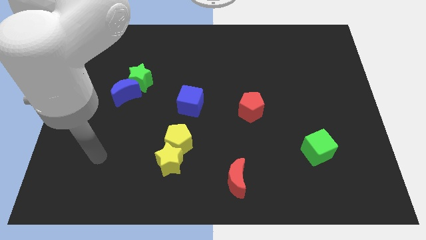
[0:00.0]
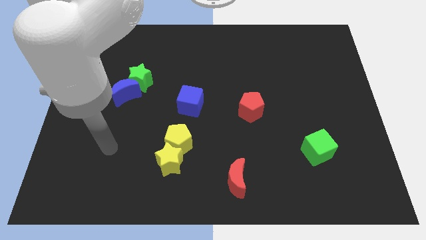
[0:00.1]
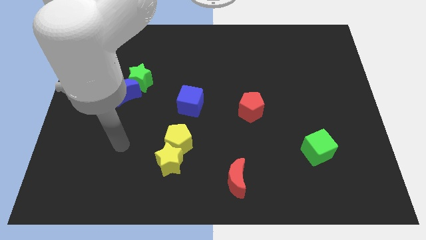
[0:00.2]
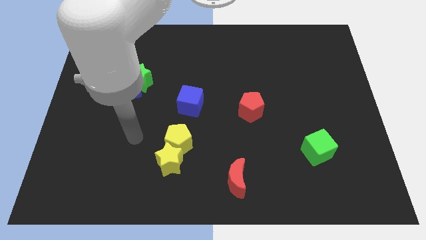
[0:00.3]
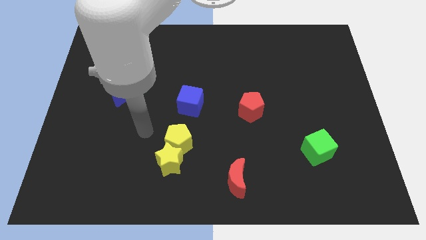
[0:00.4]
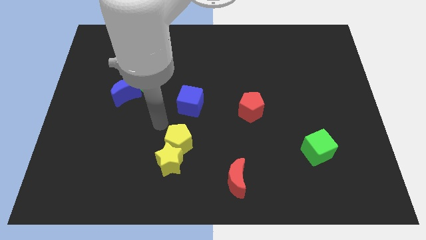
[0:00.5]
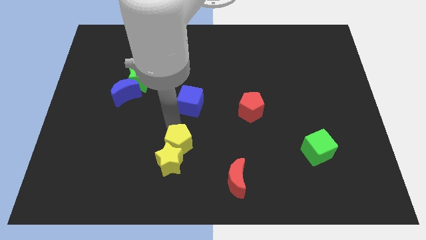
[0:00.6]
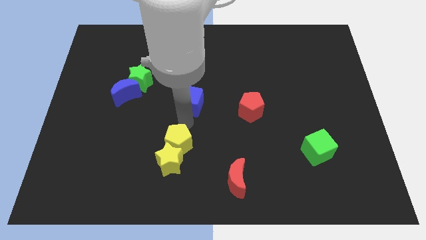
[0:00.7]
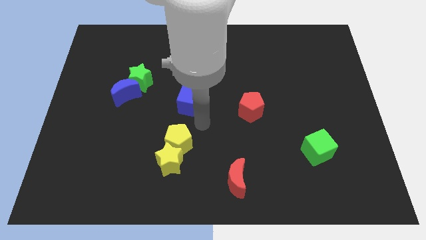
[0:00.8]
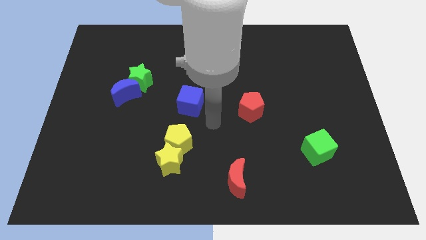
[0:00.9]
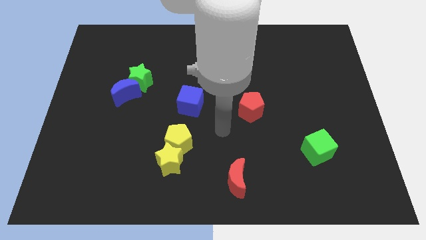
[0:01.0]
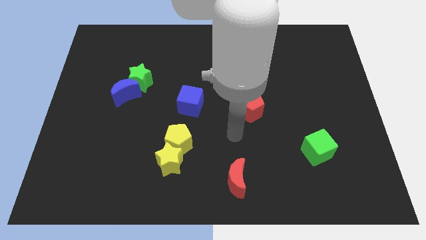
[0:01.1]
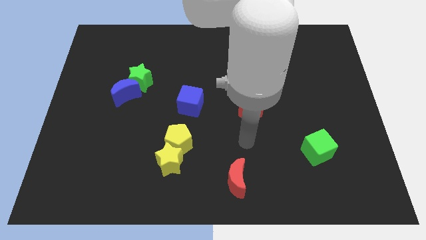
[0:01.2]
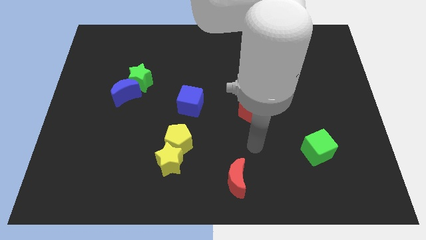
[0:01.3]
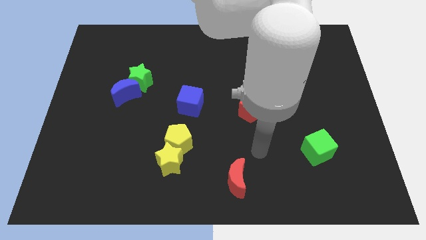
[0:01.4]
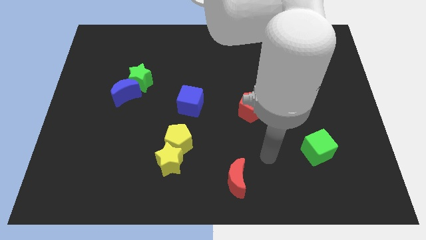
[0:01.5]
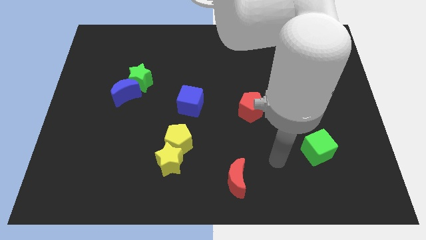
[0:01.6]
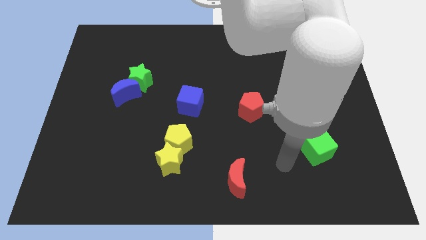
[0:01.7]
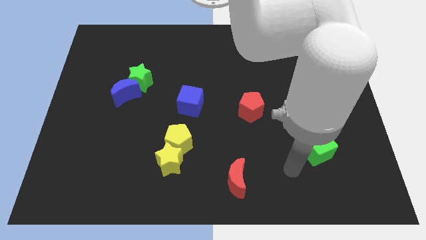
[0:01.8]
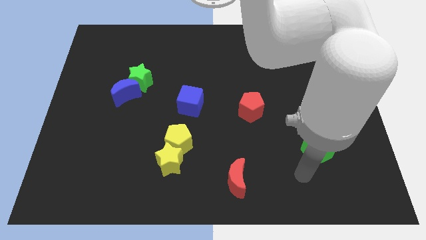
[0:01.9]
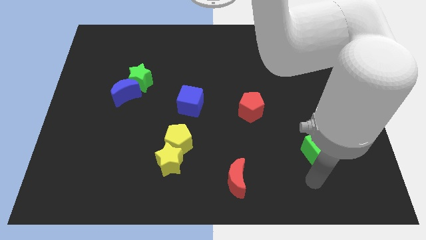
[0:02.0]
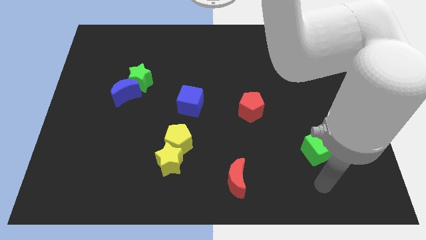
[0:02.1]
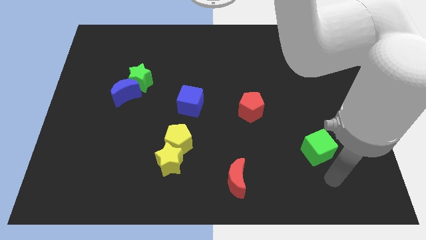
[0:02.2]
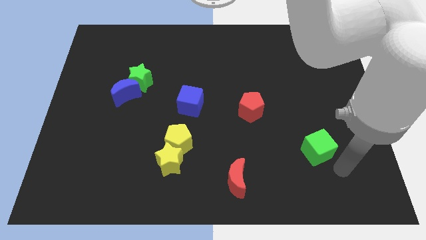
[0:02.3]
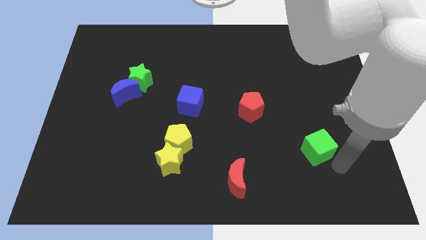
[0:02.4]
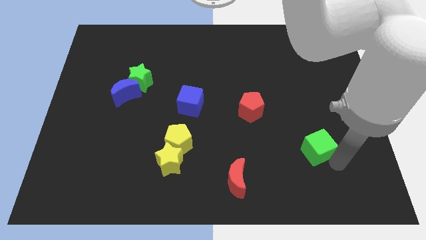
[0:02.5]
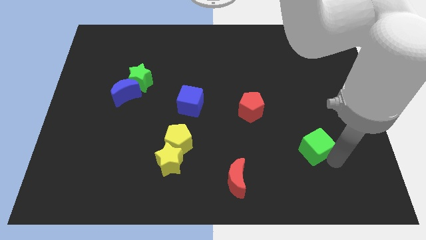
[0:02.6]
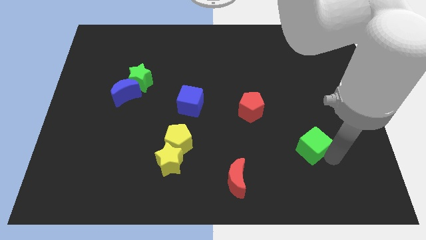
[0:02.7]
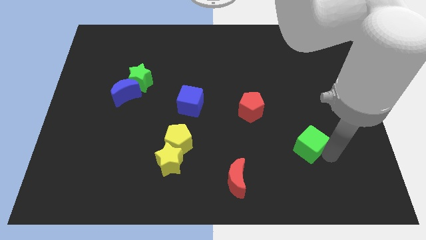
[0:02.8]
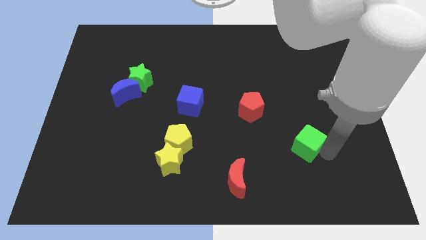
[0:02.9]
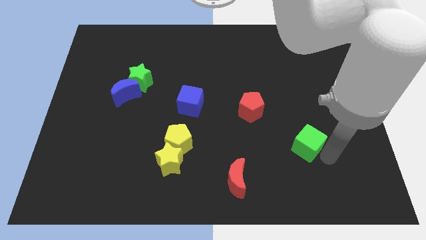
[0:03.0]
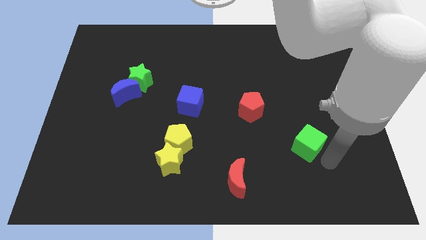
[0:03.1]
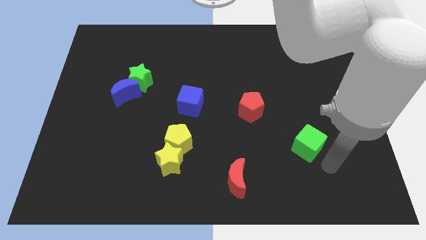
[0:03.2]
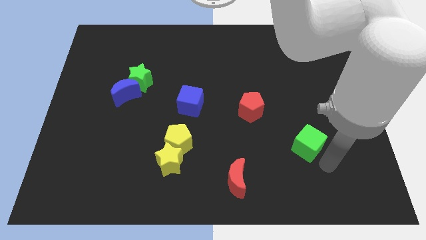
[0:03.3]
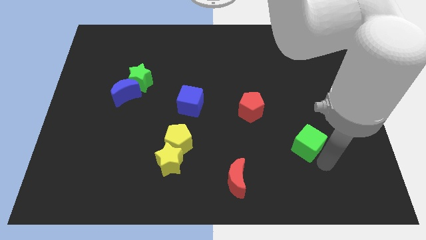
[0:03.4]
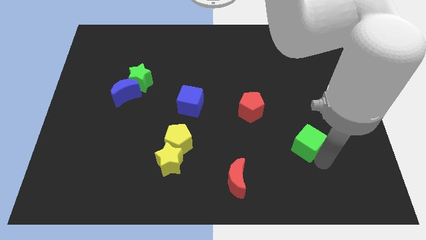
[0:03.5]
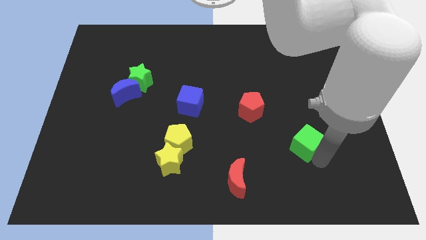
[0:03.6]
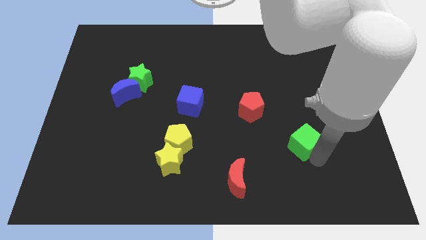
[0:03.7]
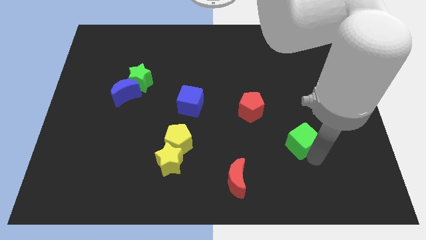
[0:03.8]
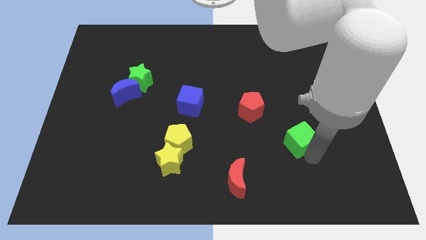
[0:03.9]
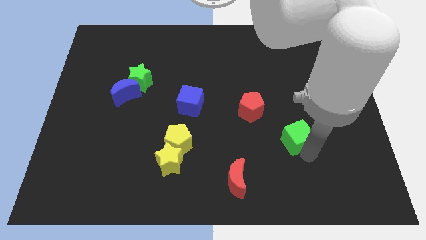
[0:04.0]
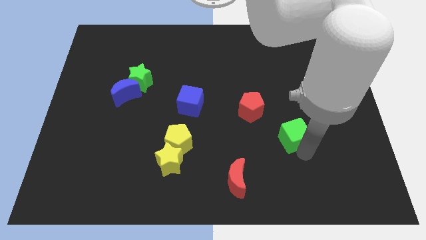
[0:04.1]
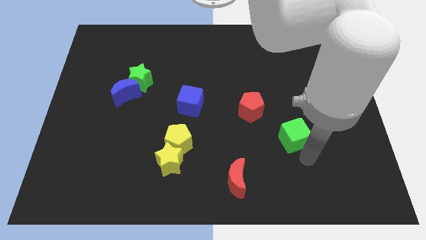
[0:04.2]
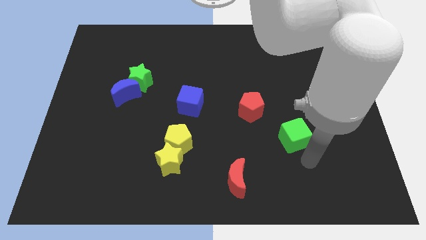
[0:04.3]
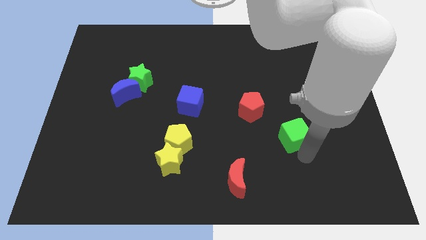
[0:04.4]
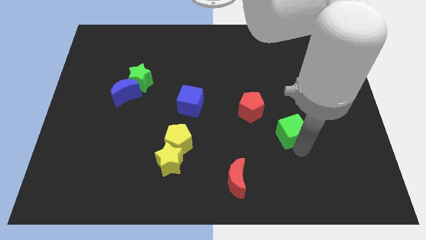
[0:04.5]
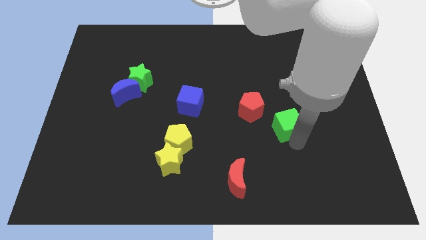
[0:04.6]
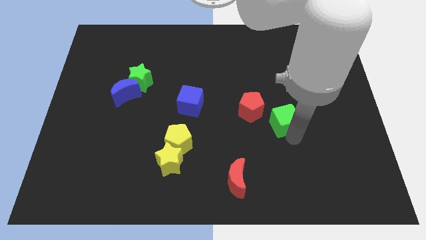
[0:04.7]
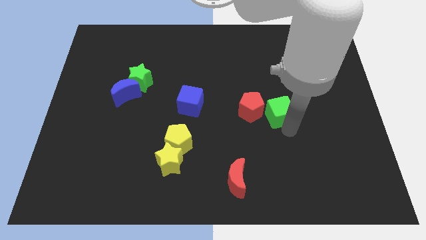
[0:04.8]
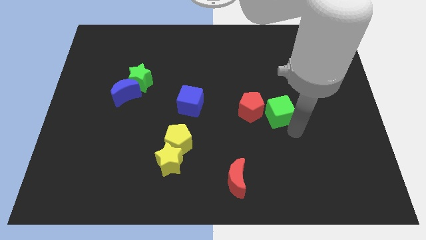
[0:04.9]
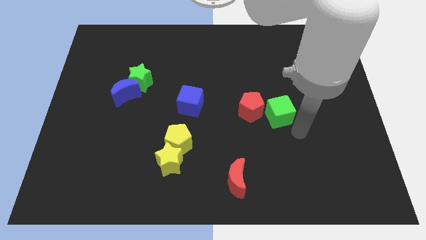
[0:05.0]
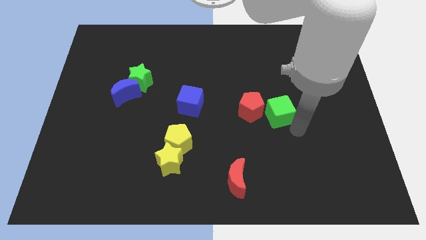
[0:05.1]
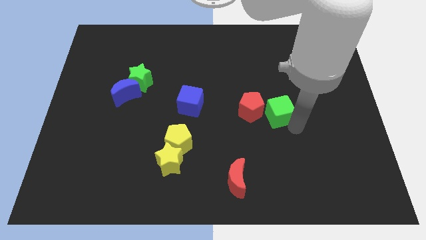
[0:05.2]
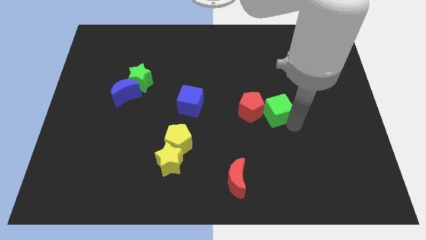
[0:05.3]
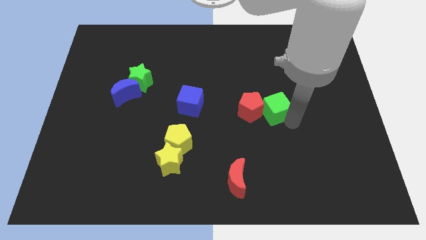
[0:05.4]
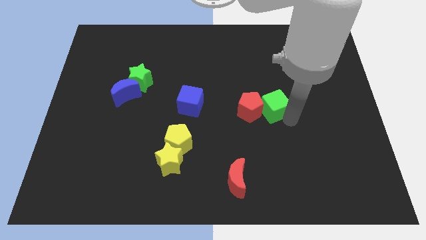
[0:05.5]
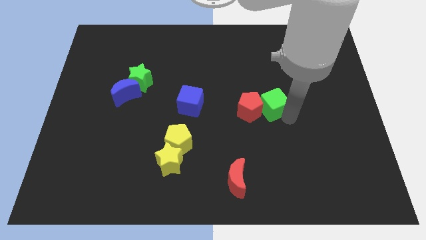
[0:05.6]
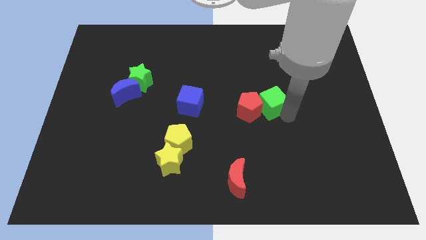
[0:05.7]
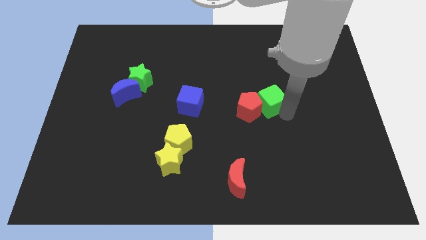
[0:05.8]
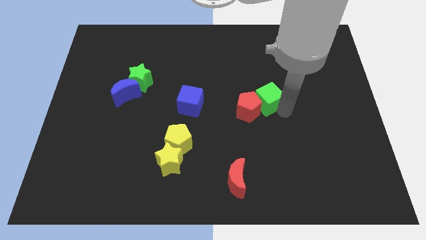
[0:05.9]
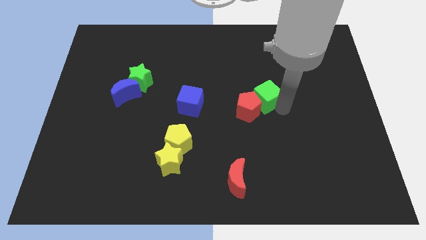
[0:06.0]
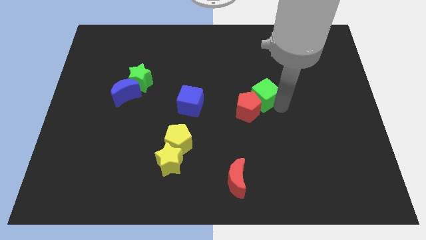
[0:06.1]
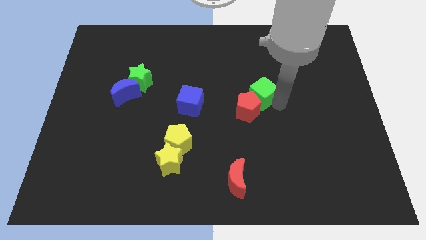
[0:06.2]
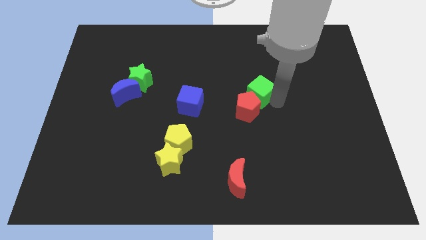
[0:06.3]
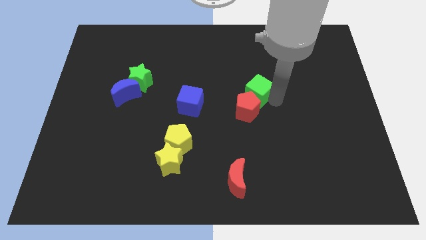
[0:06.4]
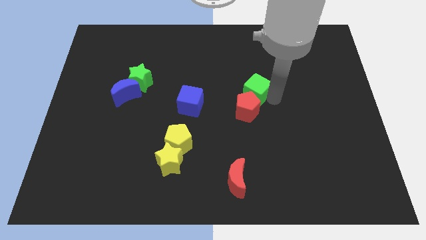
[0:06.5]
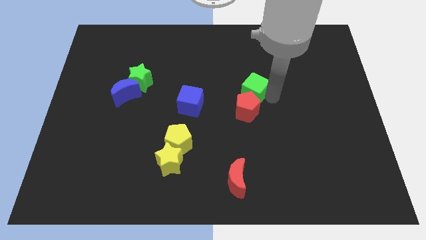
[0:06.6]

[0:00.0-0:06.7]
slide the green cube upwards and then left

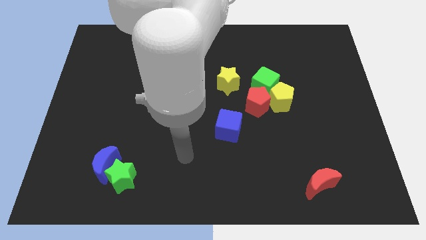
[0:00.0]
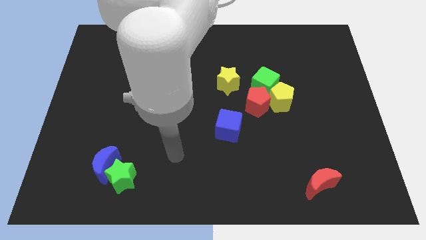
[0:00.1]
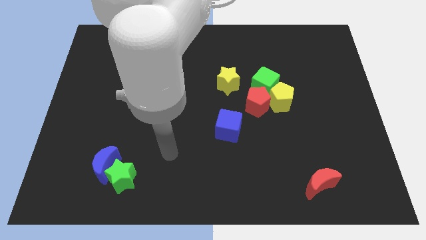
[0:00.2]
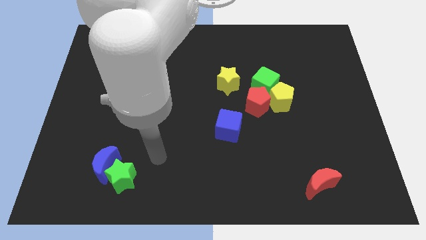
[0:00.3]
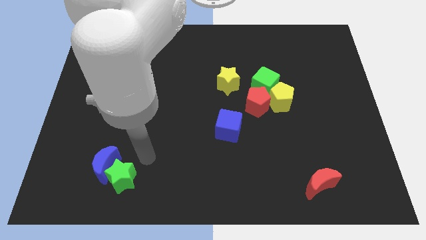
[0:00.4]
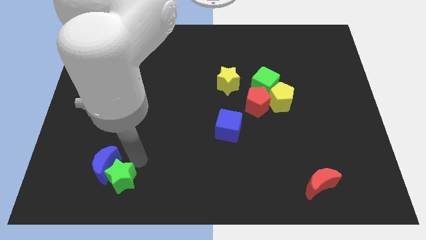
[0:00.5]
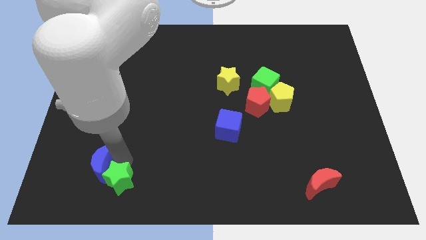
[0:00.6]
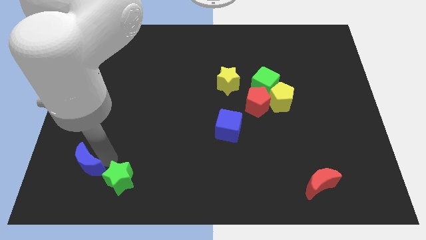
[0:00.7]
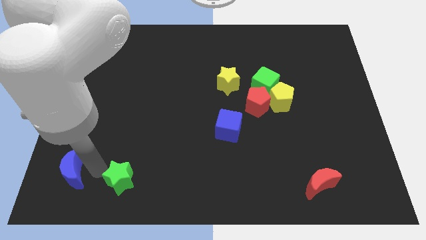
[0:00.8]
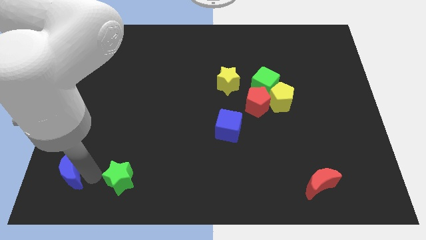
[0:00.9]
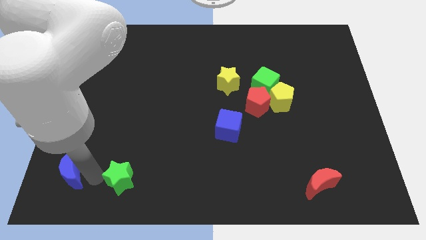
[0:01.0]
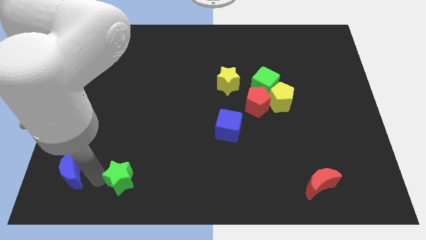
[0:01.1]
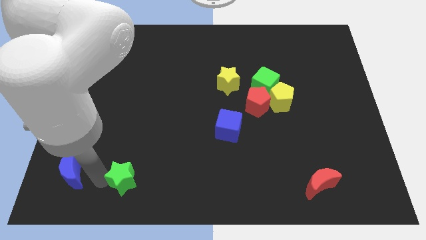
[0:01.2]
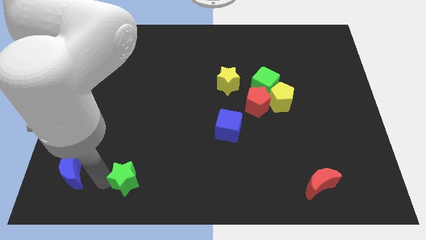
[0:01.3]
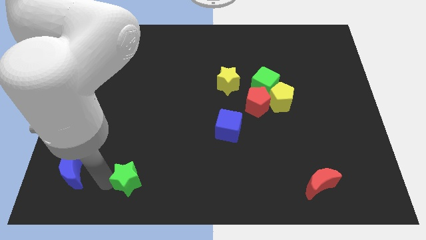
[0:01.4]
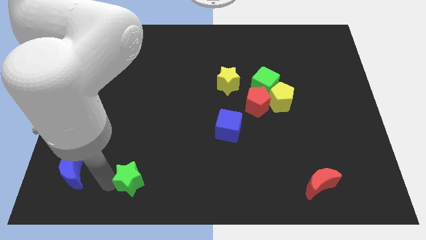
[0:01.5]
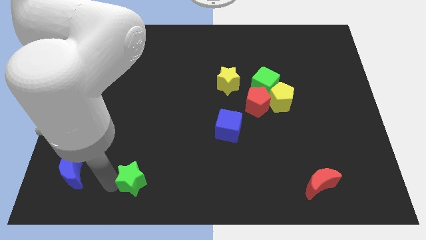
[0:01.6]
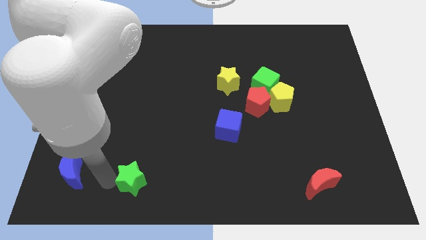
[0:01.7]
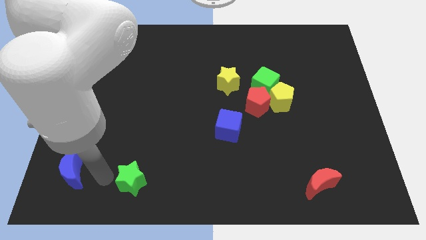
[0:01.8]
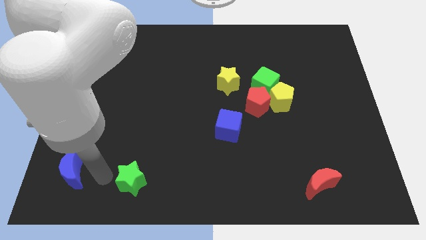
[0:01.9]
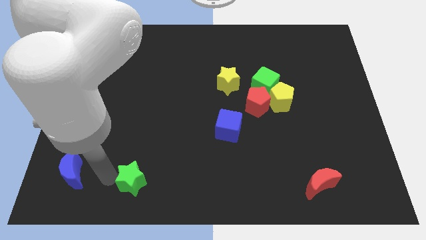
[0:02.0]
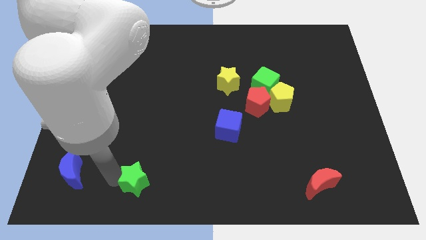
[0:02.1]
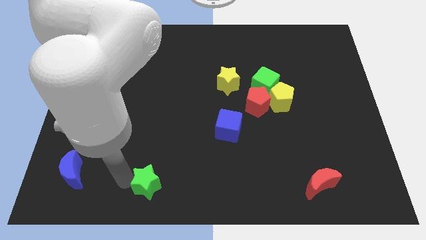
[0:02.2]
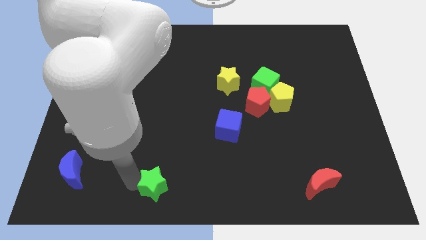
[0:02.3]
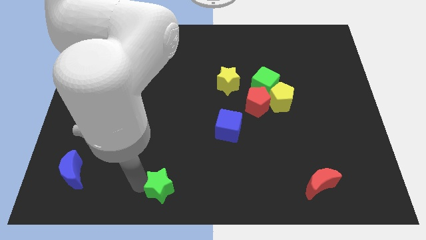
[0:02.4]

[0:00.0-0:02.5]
push the green star a little bit to the right
